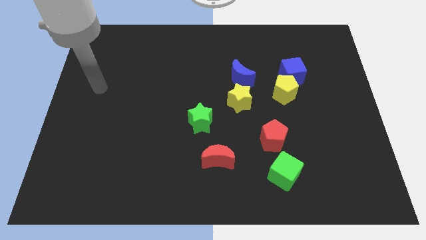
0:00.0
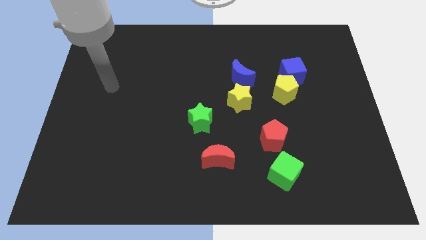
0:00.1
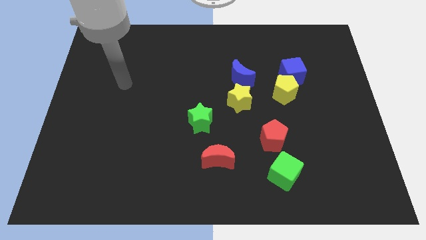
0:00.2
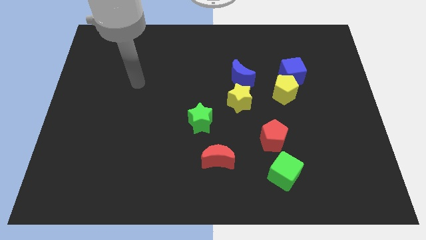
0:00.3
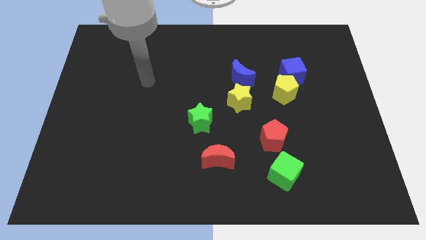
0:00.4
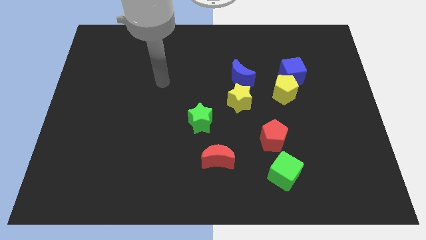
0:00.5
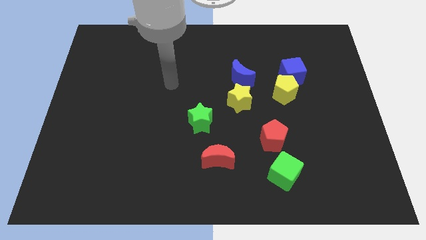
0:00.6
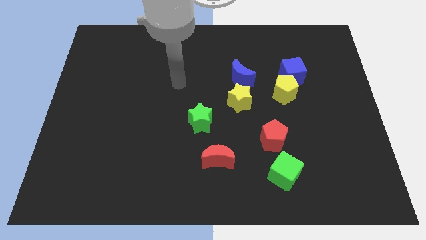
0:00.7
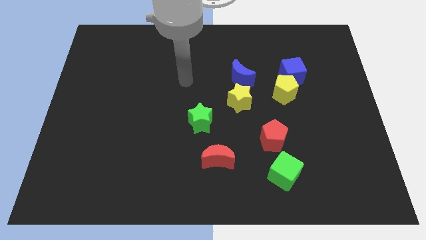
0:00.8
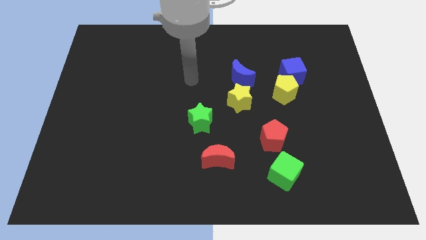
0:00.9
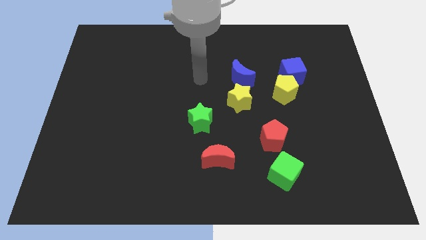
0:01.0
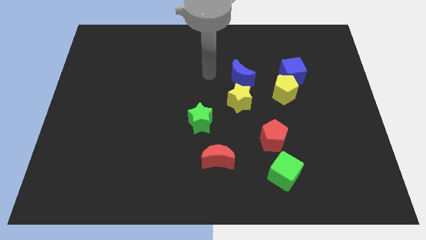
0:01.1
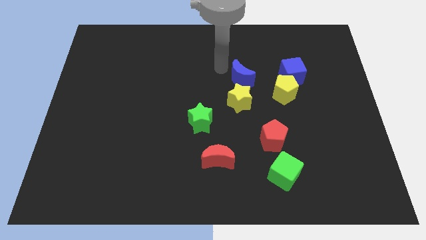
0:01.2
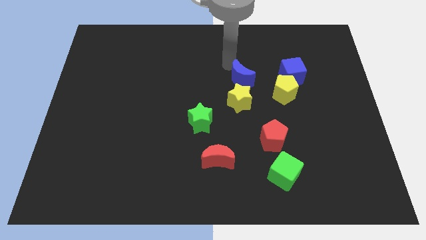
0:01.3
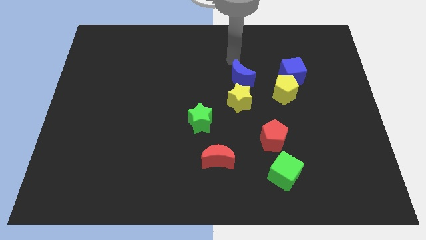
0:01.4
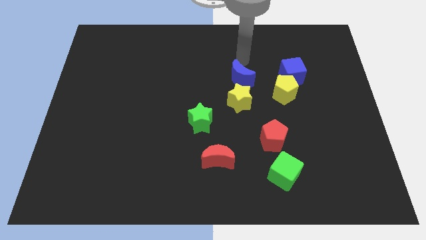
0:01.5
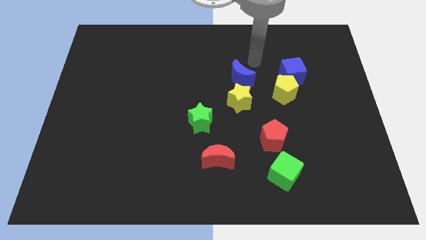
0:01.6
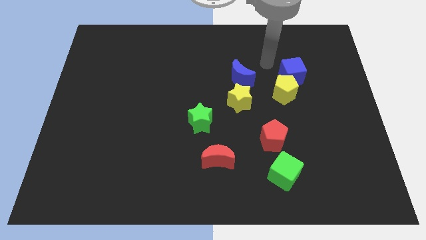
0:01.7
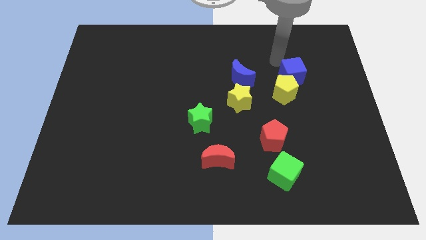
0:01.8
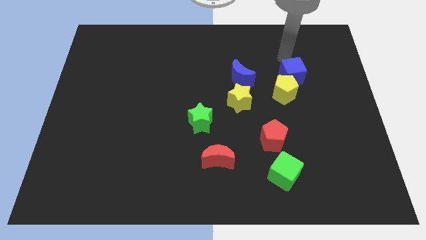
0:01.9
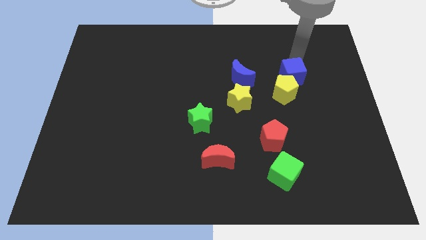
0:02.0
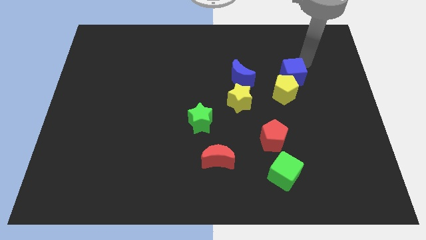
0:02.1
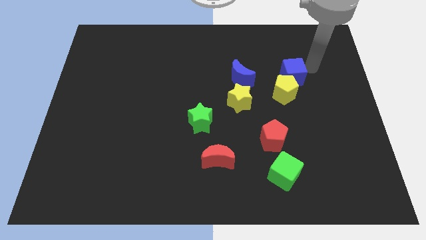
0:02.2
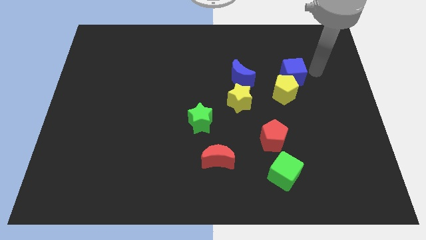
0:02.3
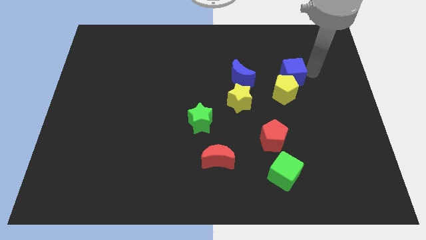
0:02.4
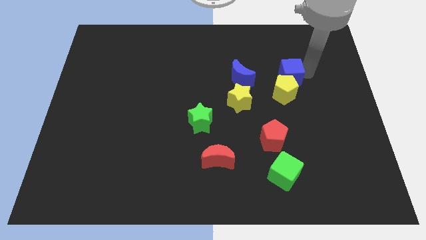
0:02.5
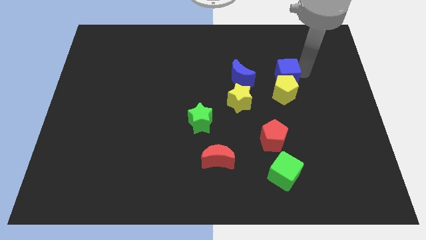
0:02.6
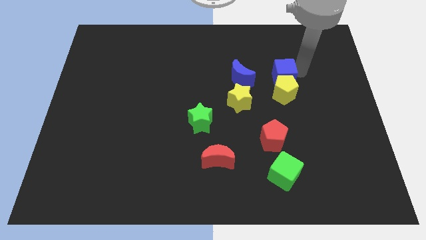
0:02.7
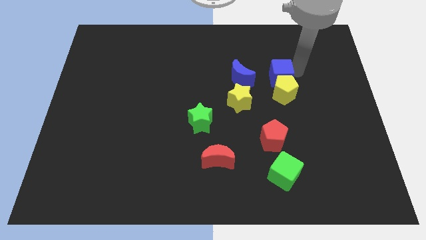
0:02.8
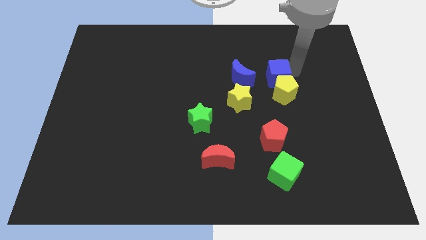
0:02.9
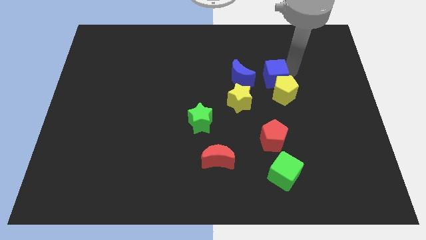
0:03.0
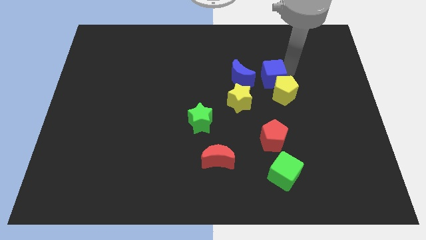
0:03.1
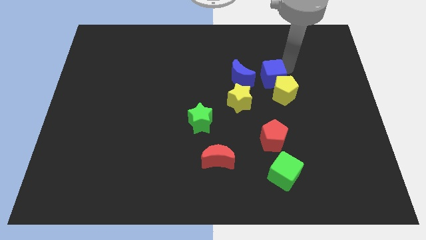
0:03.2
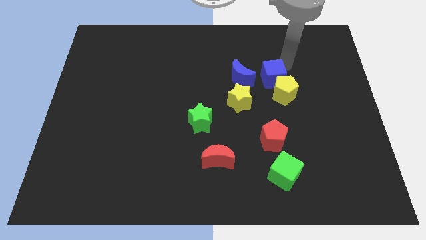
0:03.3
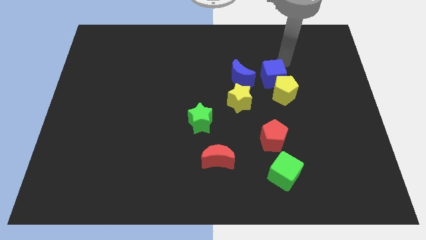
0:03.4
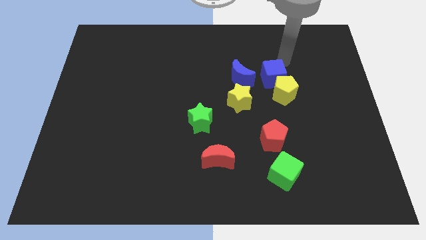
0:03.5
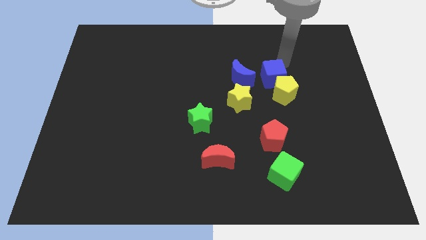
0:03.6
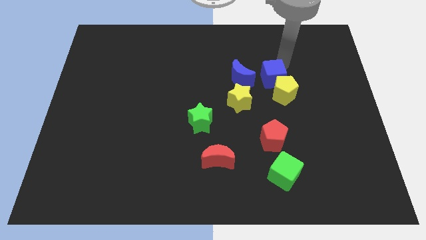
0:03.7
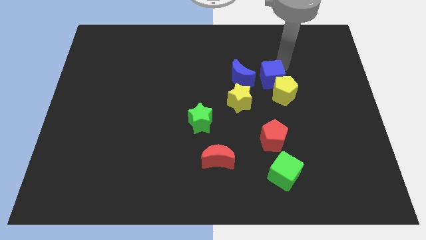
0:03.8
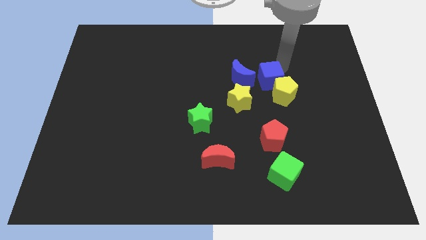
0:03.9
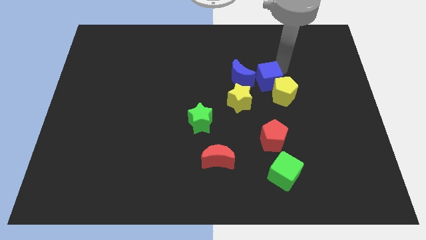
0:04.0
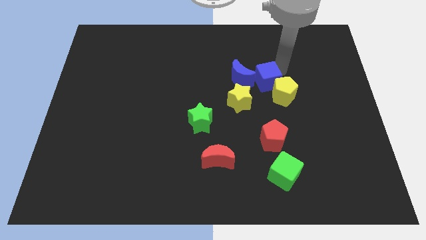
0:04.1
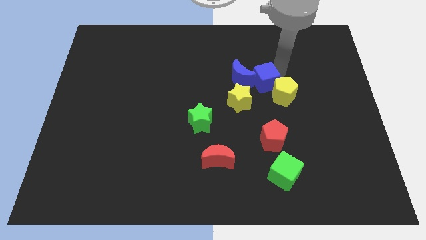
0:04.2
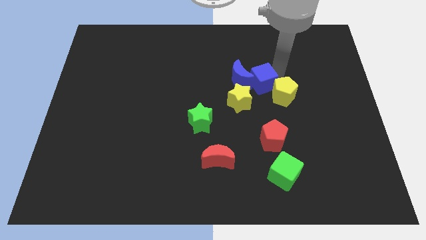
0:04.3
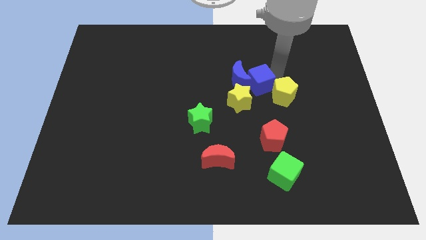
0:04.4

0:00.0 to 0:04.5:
push the blue cube diagonally downwards and to the left a little bit

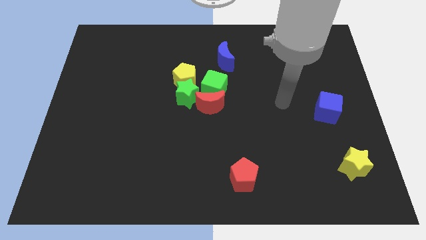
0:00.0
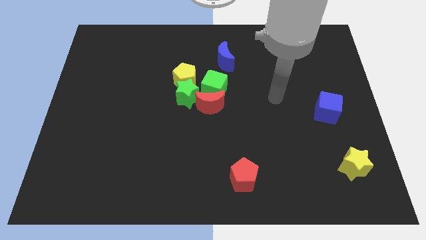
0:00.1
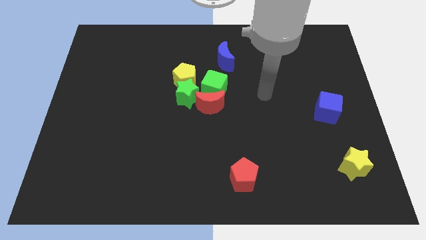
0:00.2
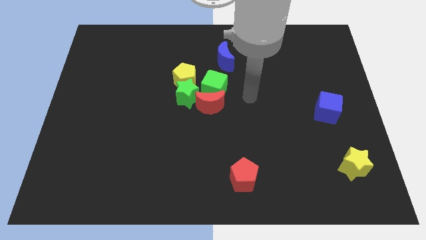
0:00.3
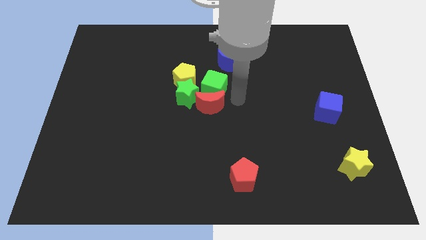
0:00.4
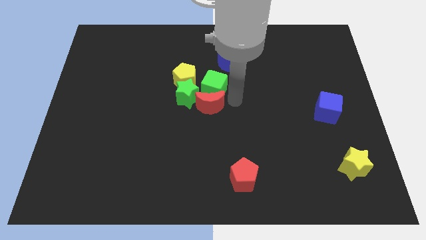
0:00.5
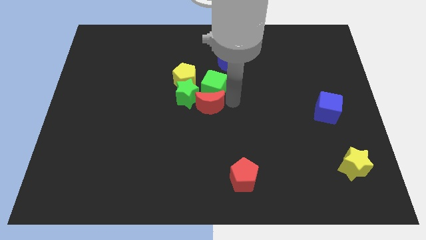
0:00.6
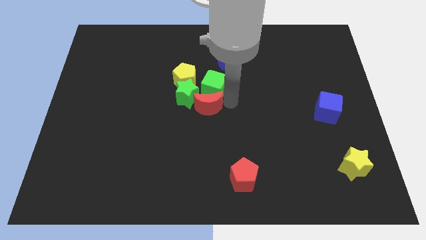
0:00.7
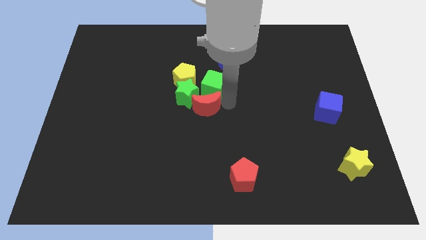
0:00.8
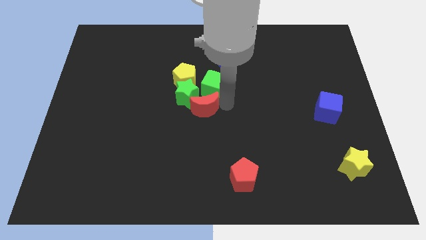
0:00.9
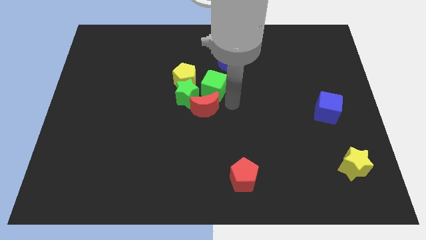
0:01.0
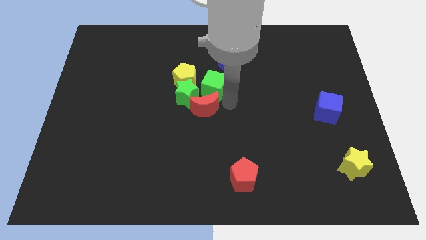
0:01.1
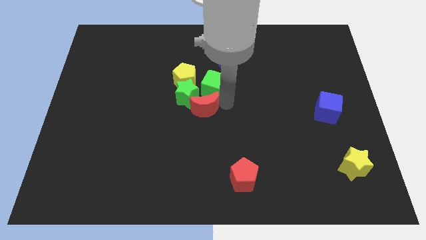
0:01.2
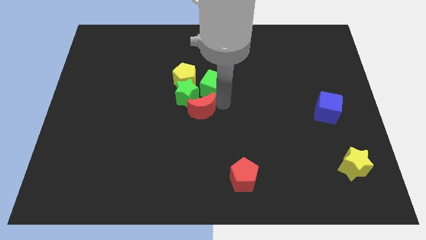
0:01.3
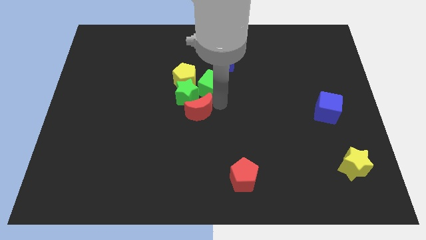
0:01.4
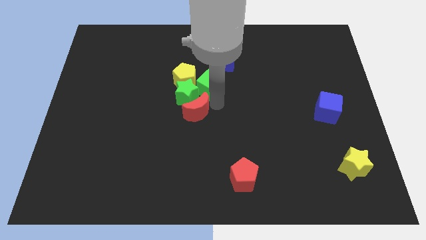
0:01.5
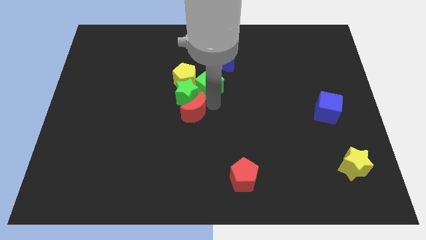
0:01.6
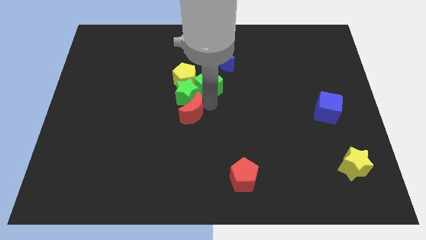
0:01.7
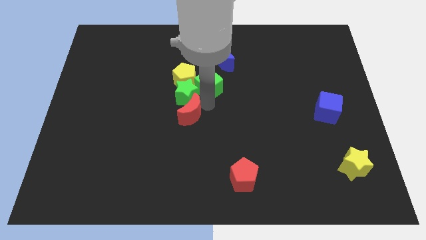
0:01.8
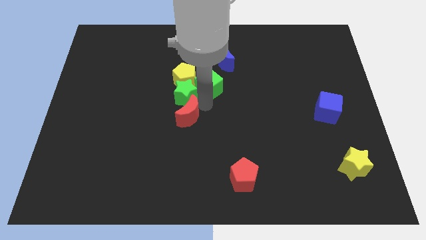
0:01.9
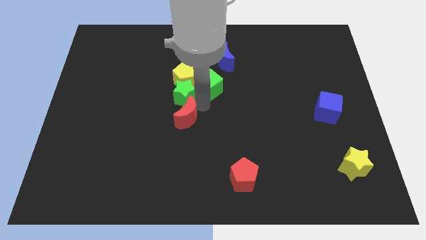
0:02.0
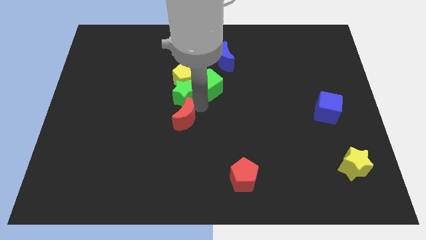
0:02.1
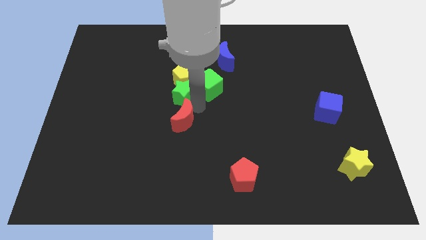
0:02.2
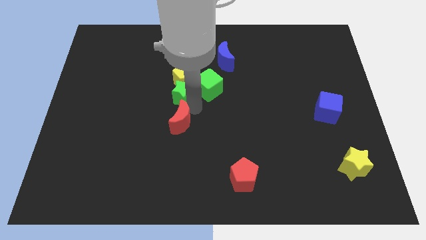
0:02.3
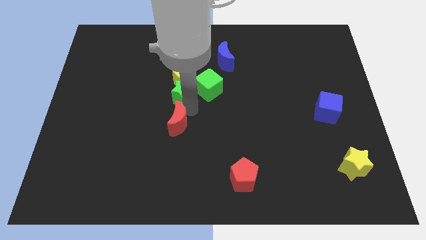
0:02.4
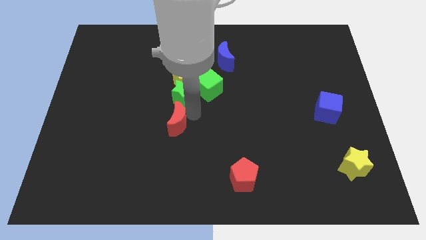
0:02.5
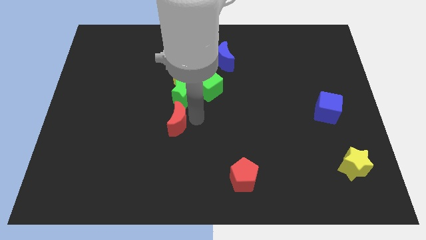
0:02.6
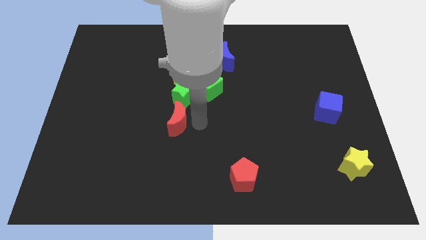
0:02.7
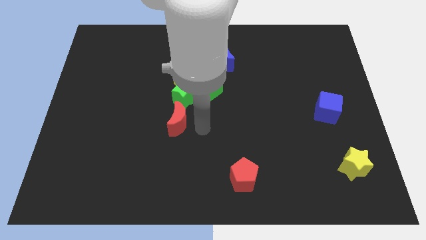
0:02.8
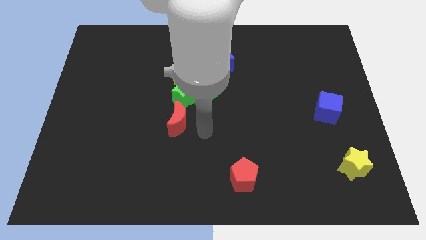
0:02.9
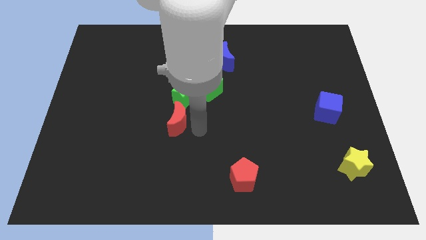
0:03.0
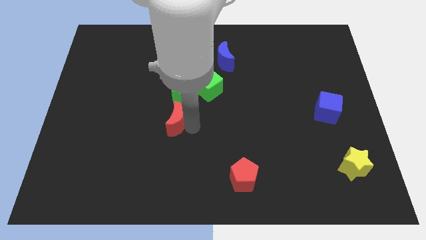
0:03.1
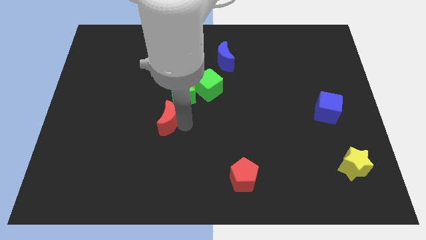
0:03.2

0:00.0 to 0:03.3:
move the red moon a little bit to the left
